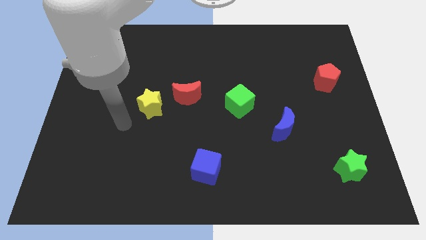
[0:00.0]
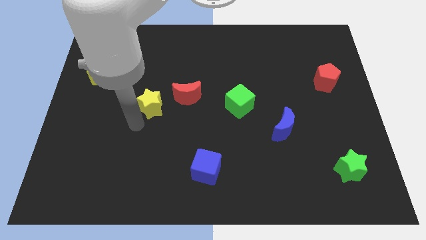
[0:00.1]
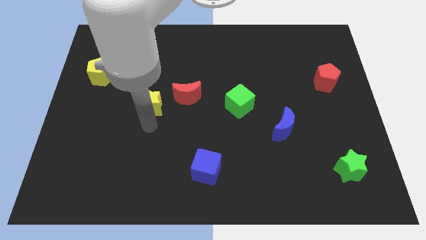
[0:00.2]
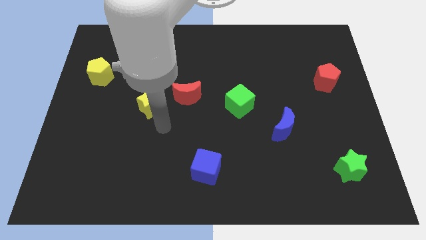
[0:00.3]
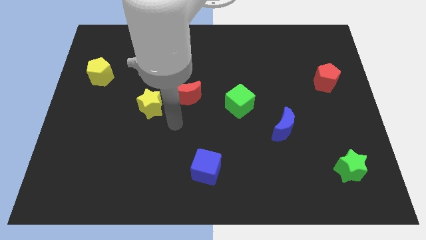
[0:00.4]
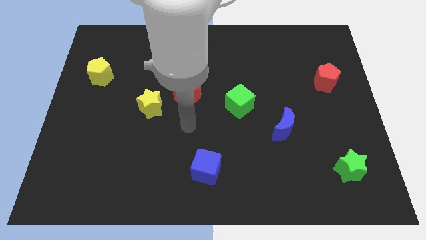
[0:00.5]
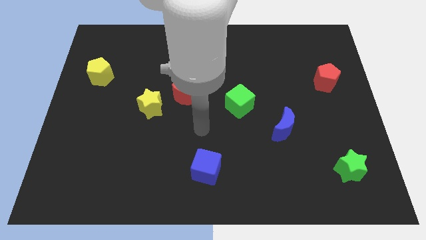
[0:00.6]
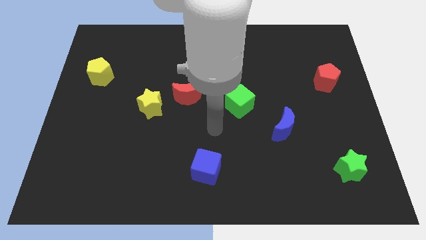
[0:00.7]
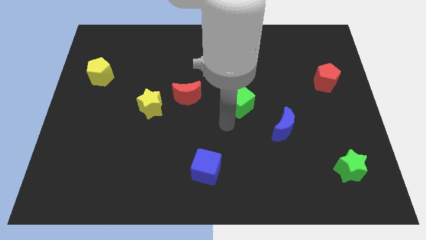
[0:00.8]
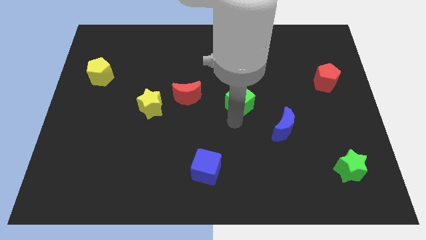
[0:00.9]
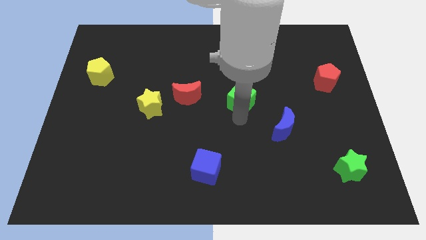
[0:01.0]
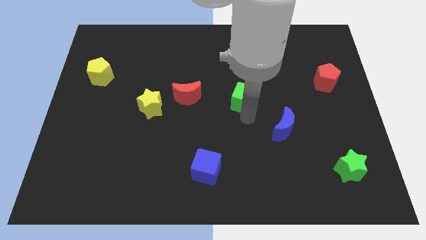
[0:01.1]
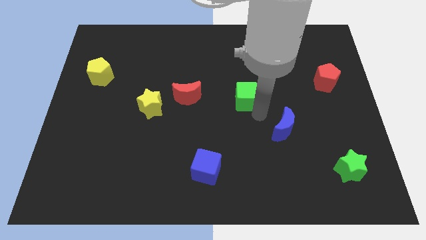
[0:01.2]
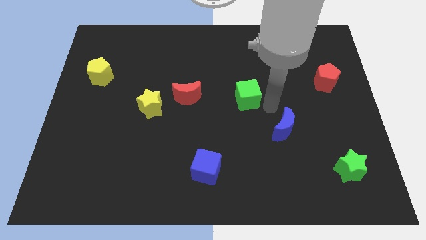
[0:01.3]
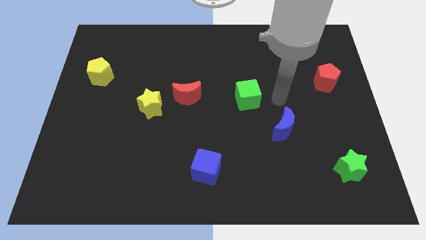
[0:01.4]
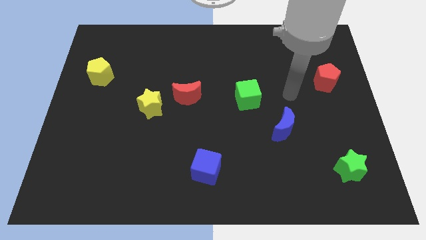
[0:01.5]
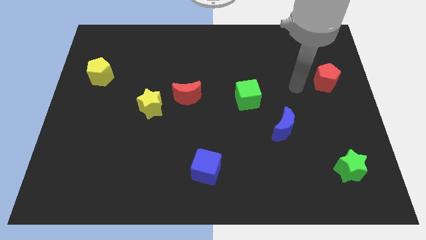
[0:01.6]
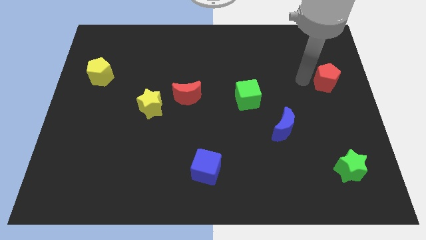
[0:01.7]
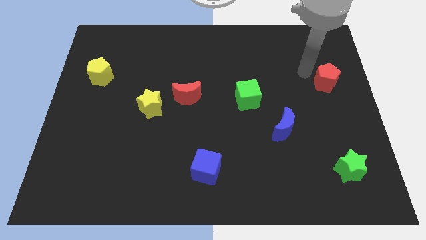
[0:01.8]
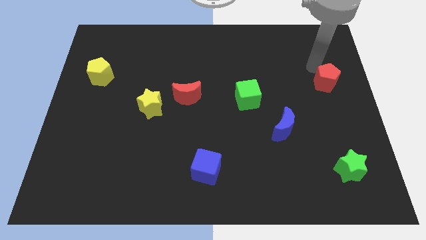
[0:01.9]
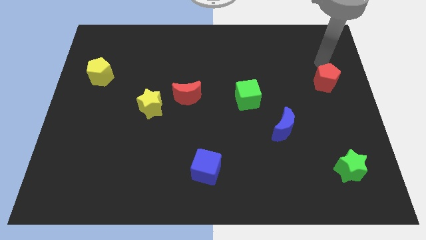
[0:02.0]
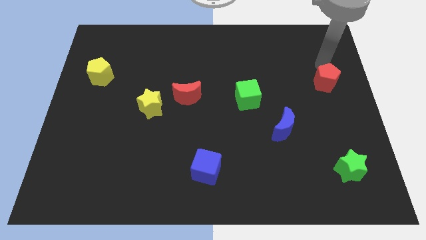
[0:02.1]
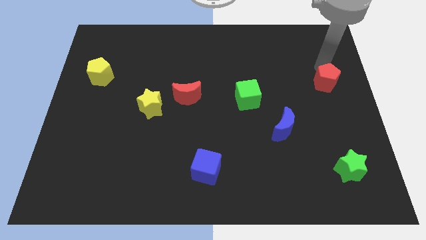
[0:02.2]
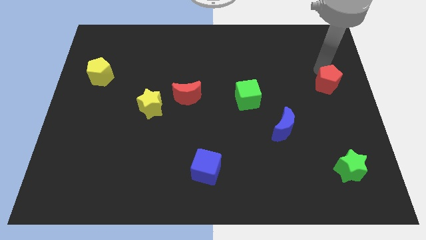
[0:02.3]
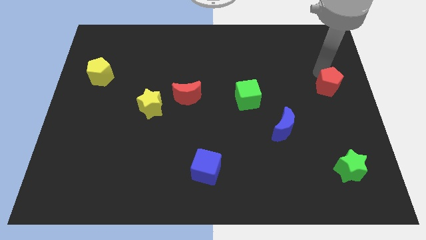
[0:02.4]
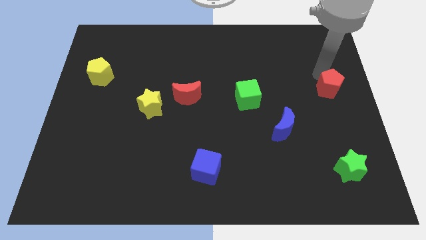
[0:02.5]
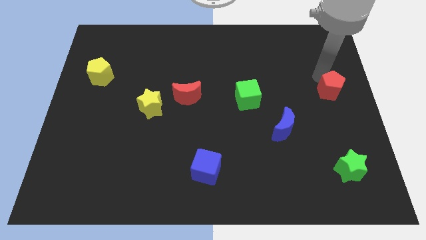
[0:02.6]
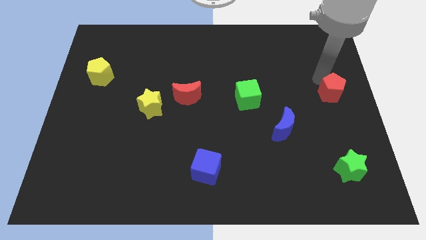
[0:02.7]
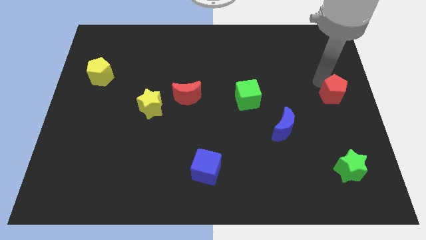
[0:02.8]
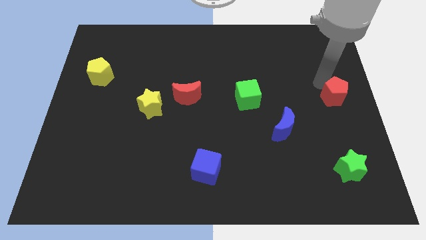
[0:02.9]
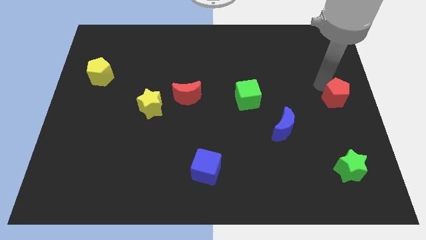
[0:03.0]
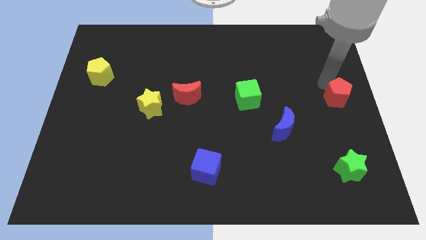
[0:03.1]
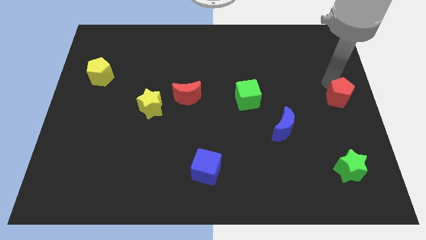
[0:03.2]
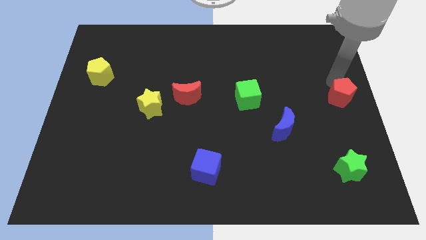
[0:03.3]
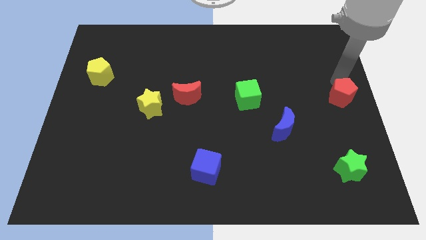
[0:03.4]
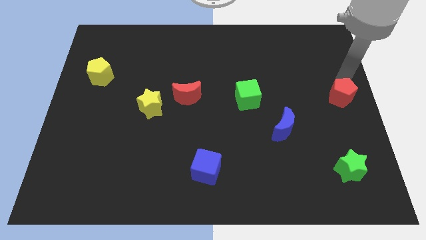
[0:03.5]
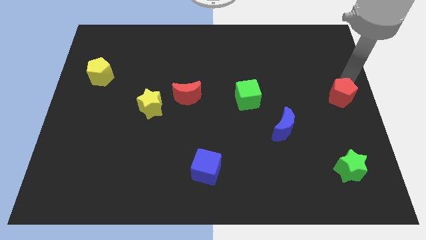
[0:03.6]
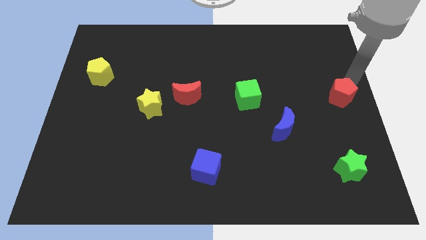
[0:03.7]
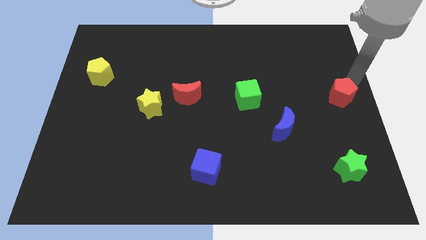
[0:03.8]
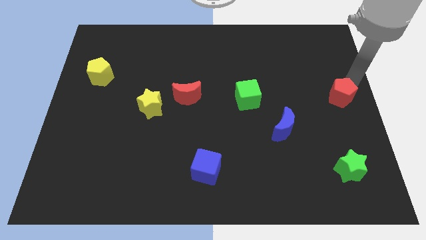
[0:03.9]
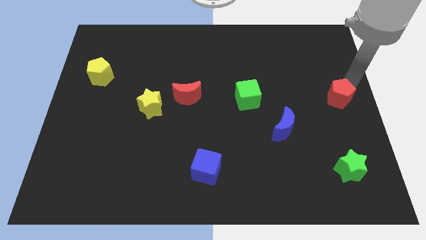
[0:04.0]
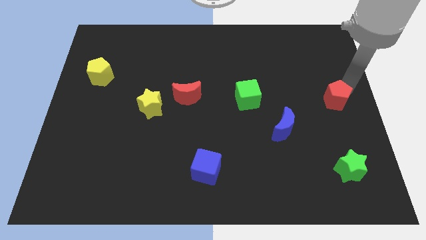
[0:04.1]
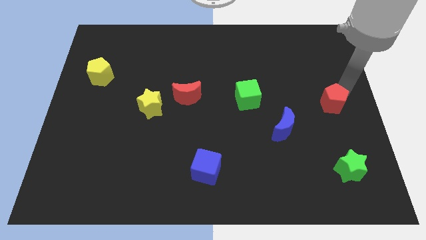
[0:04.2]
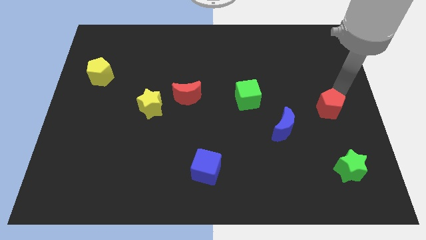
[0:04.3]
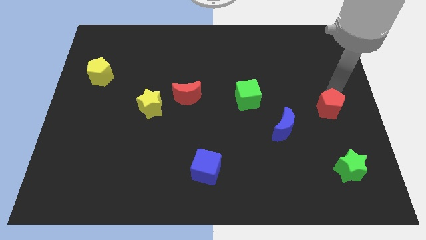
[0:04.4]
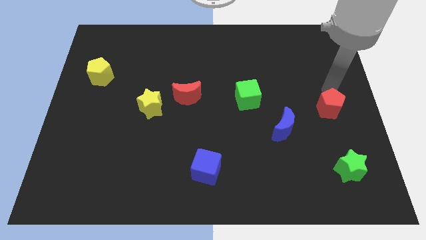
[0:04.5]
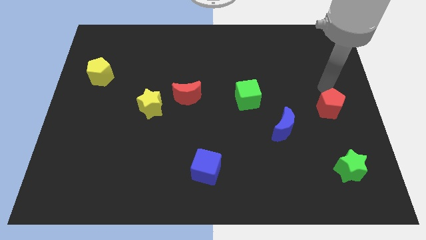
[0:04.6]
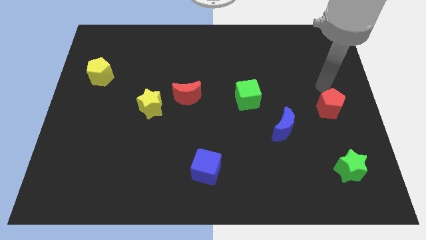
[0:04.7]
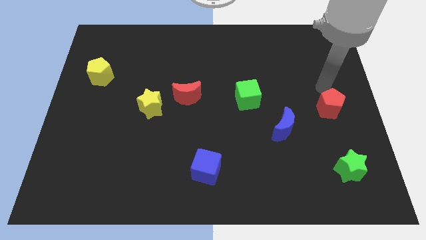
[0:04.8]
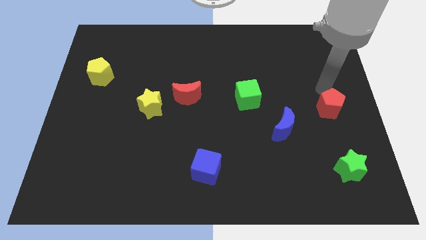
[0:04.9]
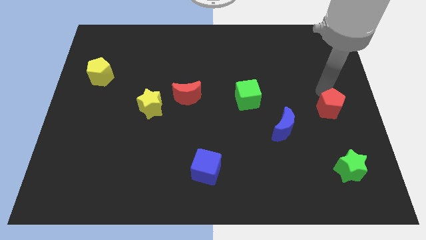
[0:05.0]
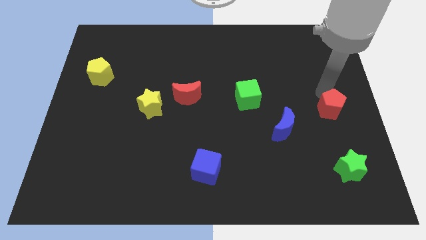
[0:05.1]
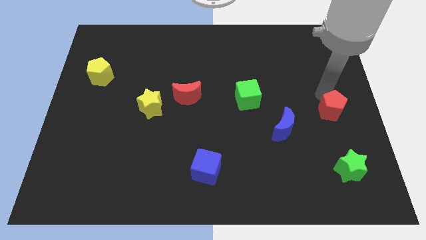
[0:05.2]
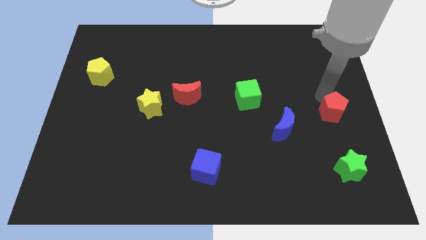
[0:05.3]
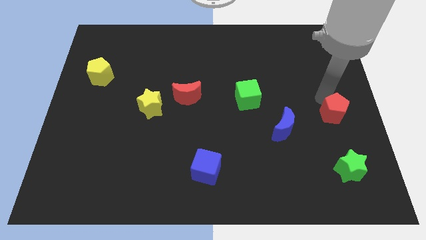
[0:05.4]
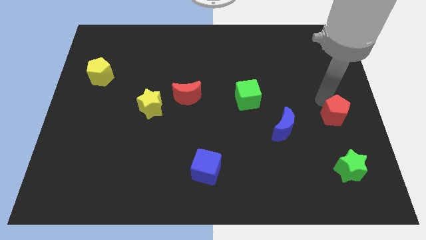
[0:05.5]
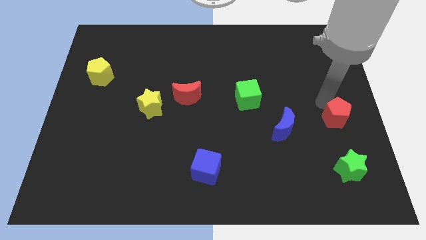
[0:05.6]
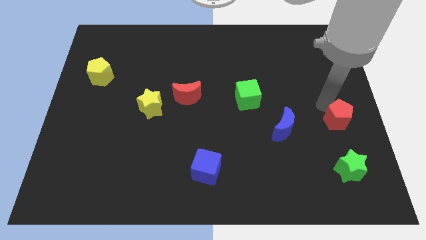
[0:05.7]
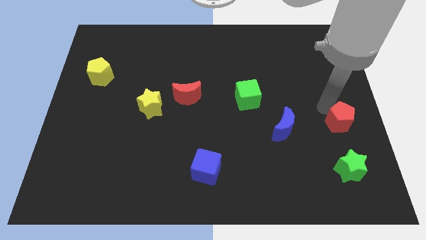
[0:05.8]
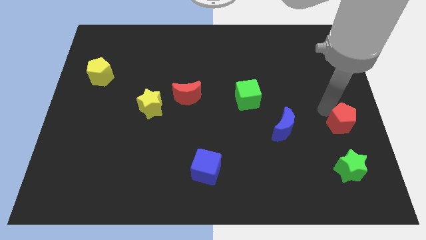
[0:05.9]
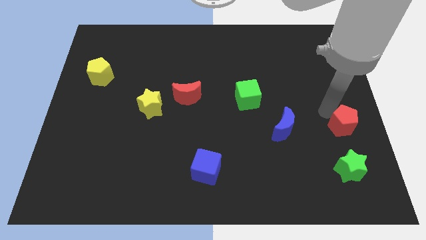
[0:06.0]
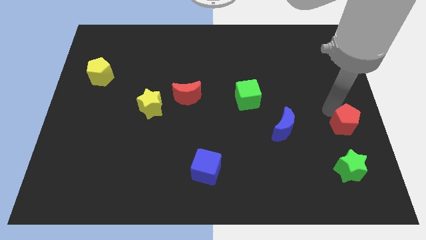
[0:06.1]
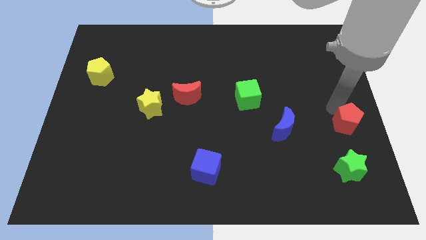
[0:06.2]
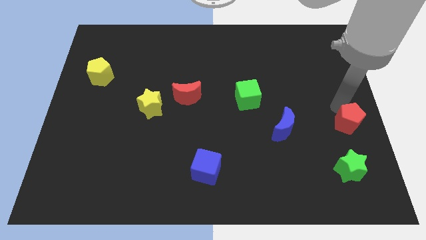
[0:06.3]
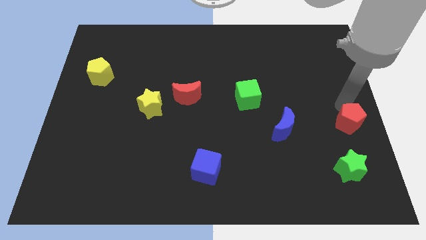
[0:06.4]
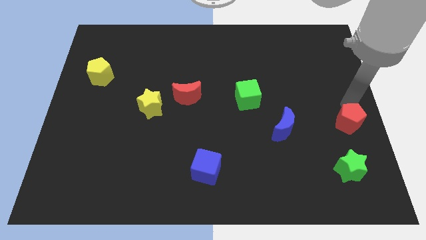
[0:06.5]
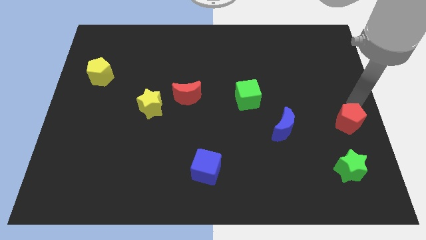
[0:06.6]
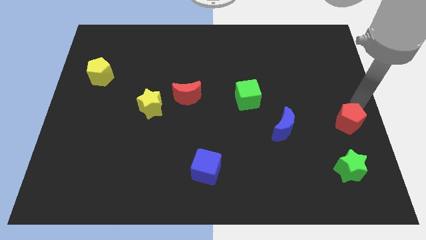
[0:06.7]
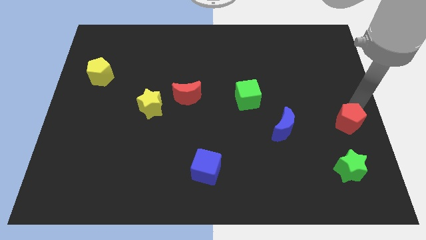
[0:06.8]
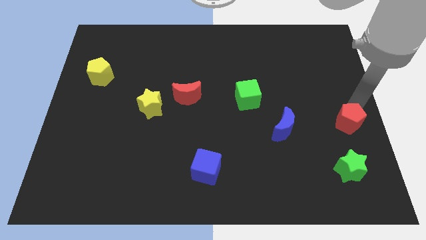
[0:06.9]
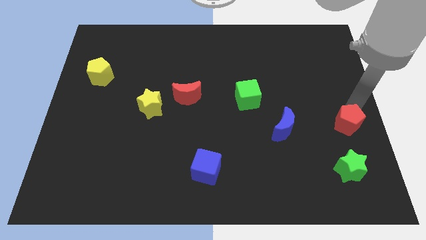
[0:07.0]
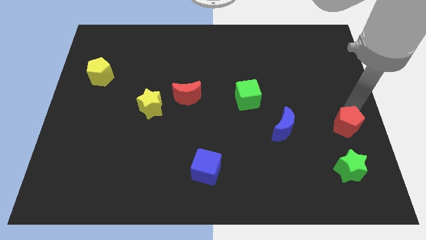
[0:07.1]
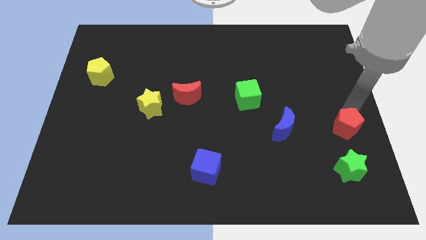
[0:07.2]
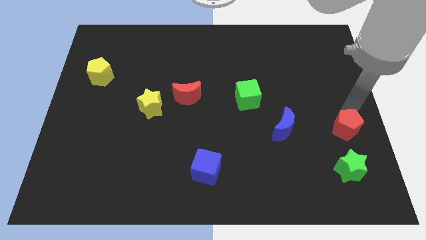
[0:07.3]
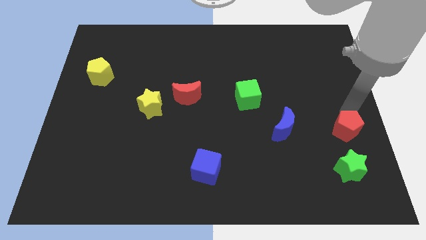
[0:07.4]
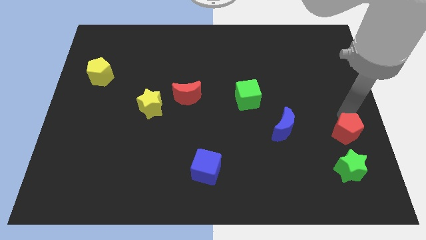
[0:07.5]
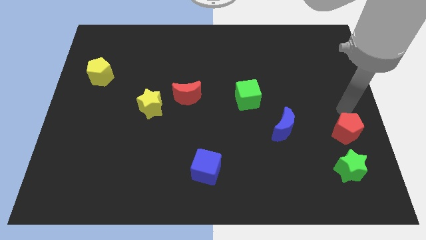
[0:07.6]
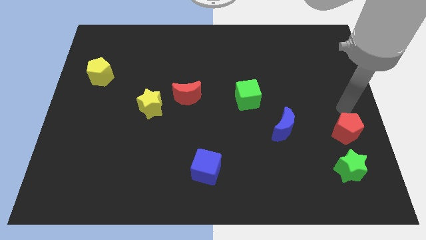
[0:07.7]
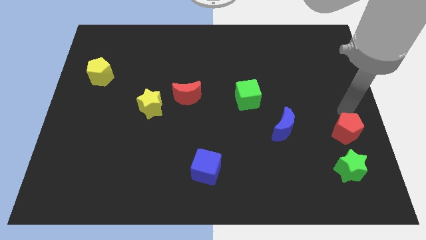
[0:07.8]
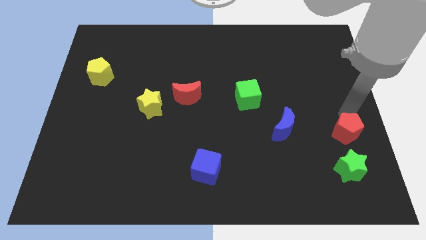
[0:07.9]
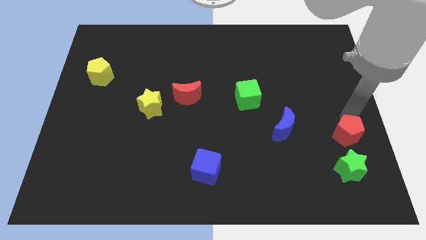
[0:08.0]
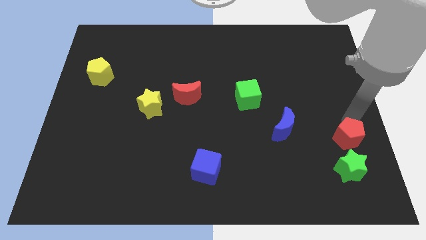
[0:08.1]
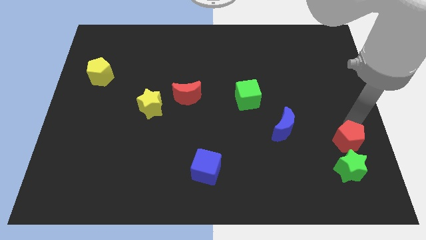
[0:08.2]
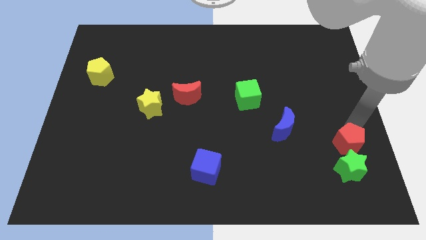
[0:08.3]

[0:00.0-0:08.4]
put the red pentagon close to the green star
